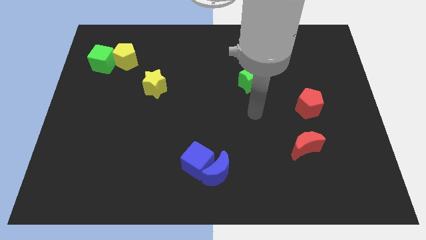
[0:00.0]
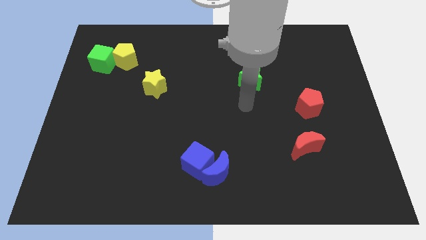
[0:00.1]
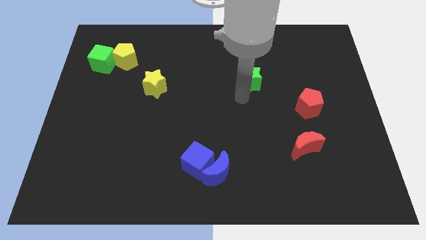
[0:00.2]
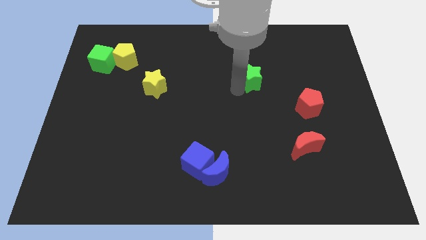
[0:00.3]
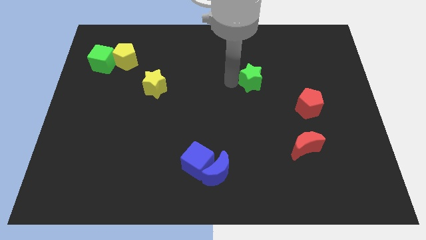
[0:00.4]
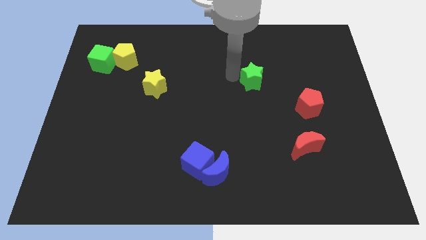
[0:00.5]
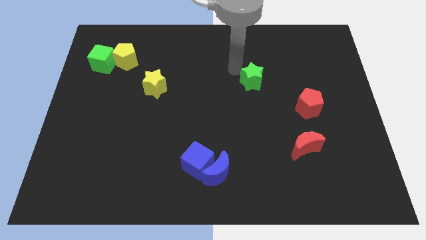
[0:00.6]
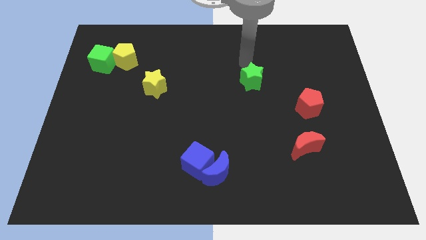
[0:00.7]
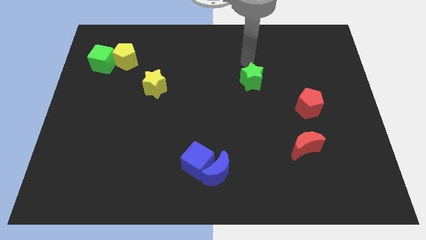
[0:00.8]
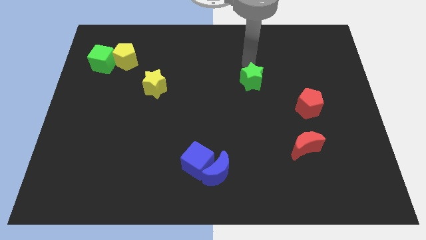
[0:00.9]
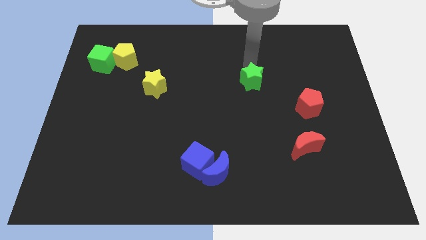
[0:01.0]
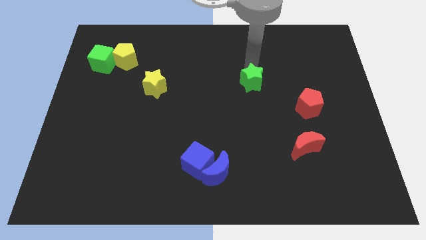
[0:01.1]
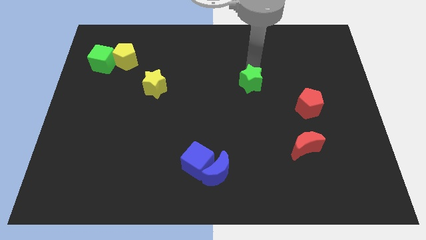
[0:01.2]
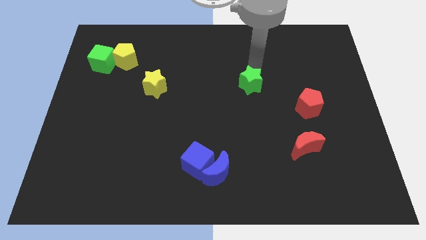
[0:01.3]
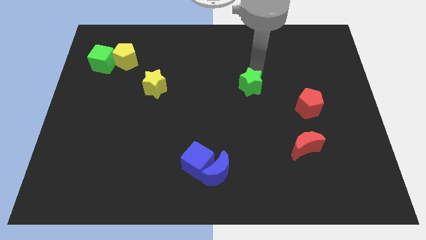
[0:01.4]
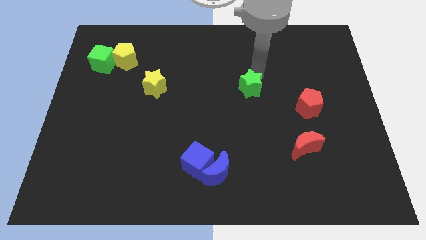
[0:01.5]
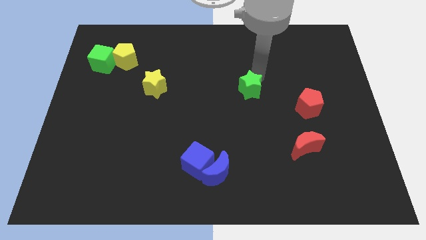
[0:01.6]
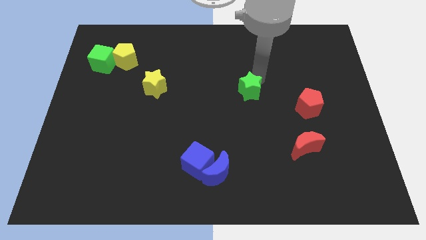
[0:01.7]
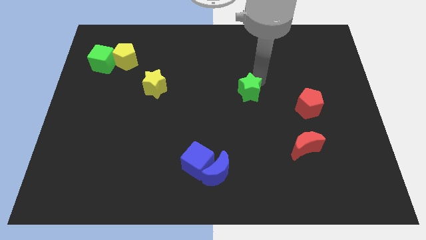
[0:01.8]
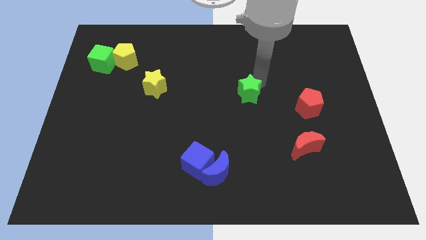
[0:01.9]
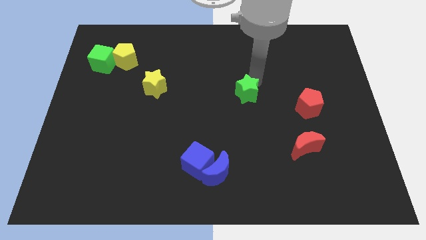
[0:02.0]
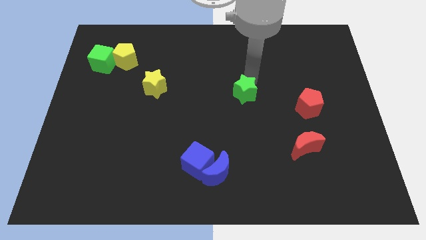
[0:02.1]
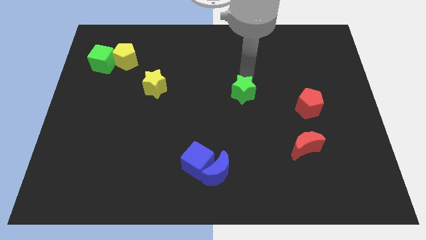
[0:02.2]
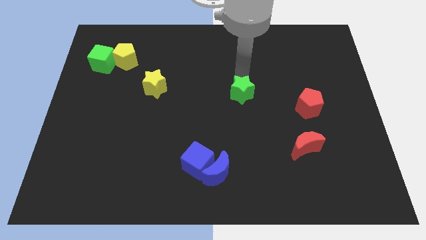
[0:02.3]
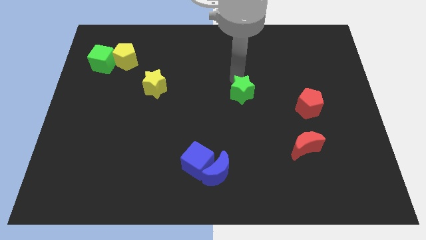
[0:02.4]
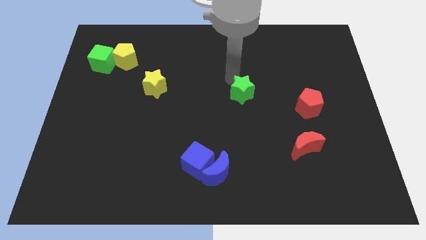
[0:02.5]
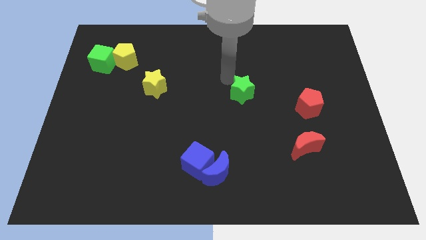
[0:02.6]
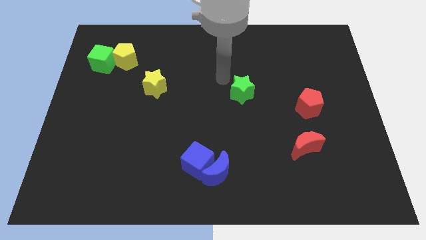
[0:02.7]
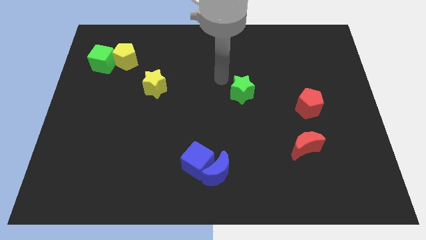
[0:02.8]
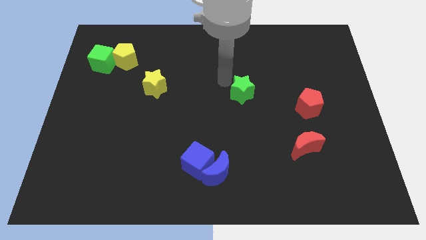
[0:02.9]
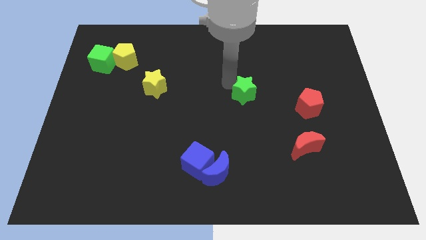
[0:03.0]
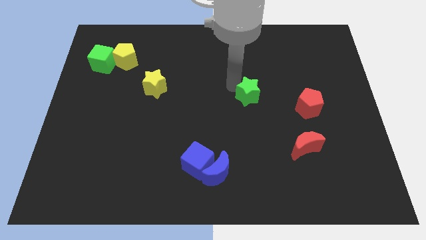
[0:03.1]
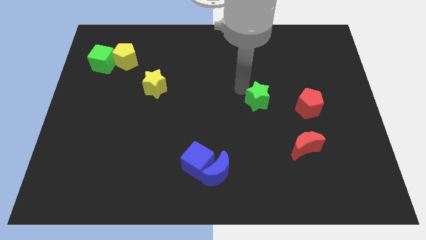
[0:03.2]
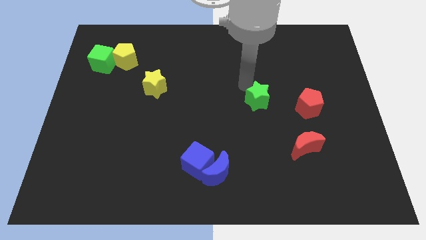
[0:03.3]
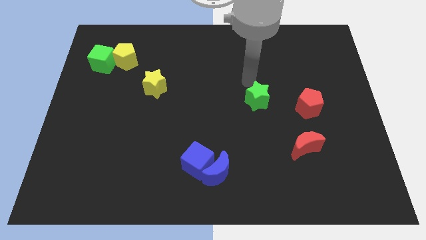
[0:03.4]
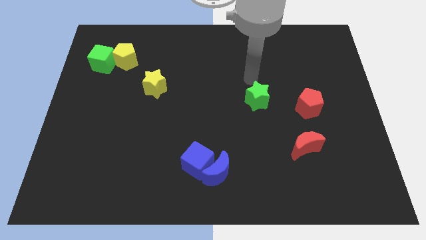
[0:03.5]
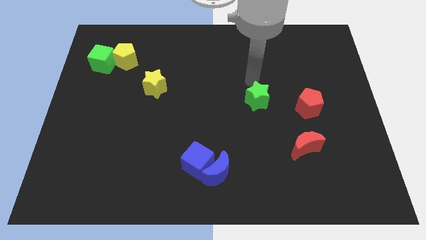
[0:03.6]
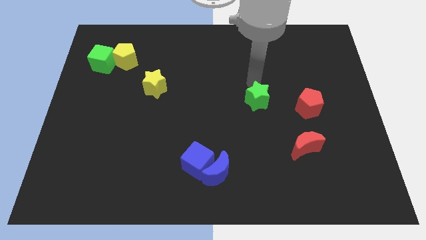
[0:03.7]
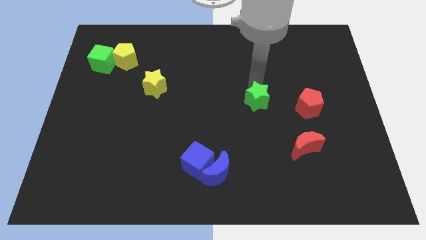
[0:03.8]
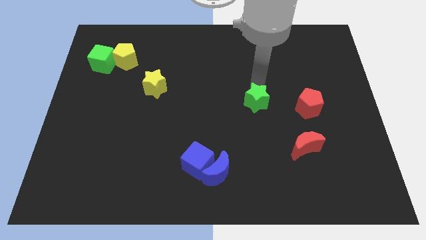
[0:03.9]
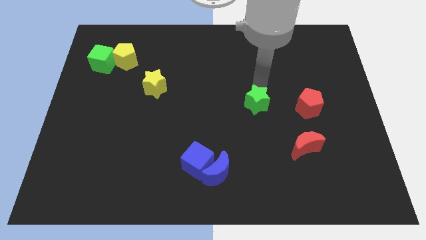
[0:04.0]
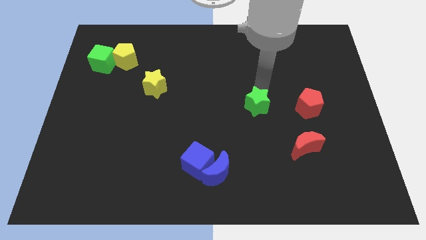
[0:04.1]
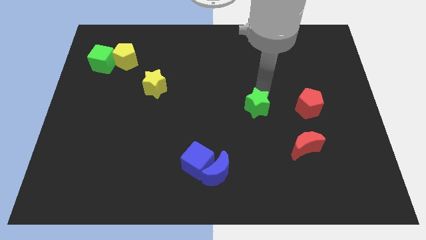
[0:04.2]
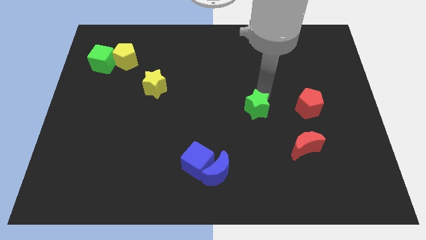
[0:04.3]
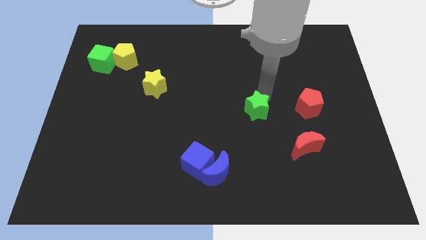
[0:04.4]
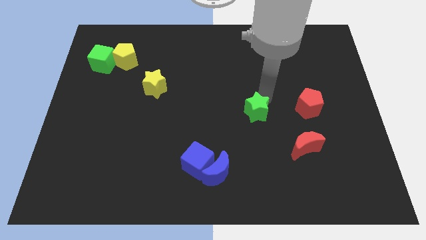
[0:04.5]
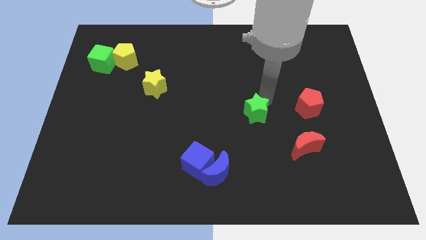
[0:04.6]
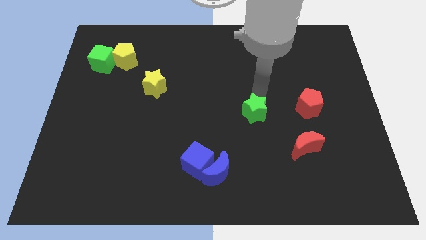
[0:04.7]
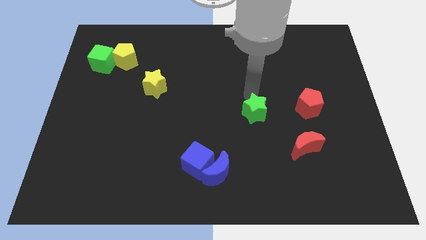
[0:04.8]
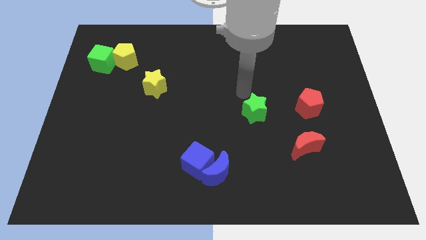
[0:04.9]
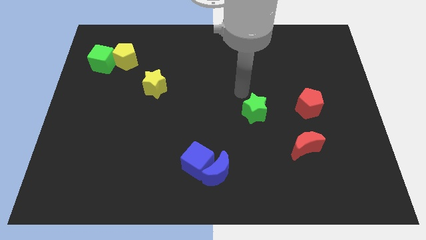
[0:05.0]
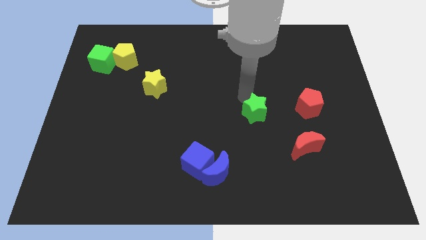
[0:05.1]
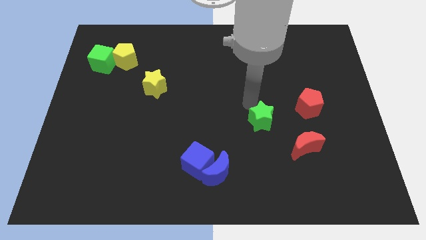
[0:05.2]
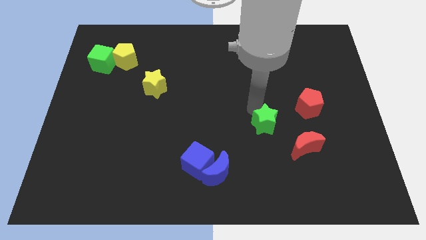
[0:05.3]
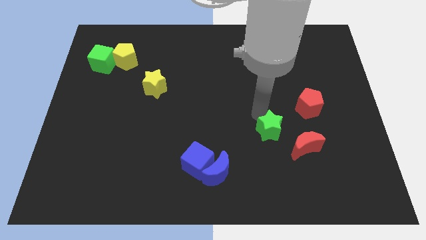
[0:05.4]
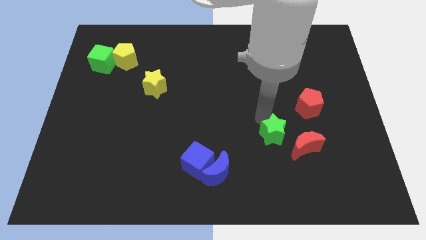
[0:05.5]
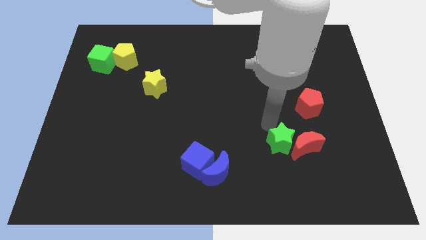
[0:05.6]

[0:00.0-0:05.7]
slide the green star diagonally down and to the left of the red moon

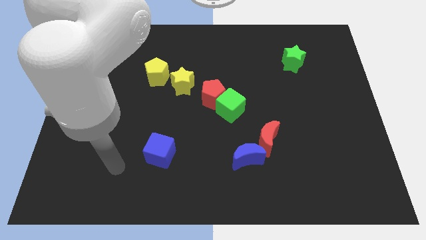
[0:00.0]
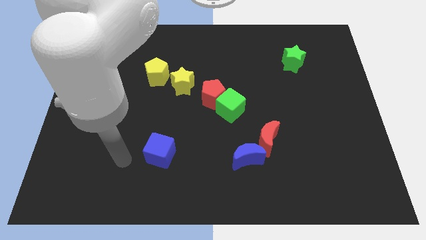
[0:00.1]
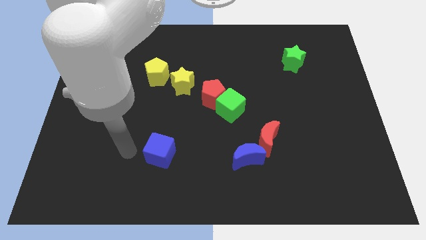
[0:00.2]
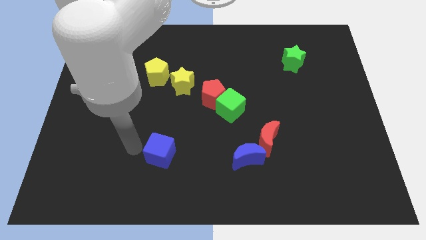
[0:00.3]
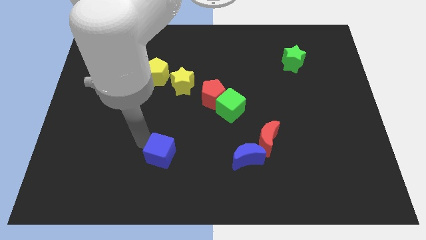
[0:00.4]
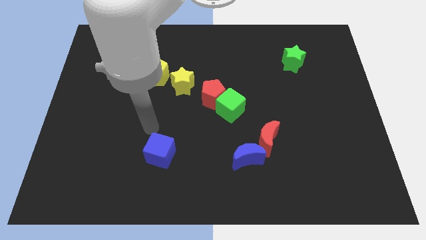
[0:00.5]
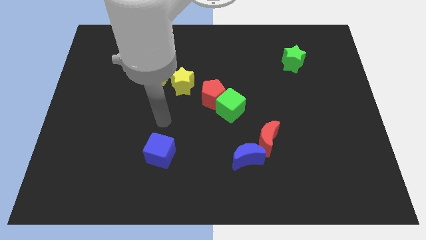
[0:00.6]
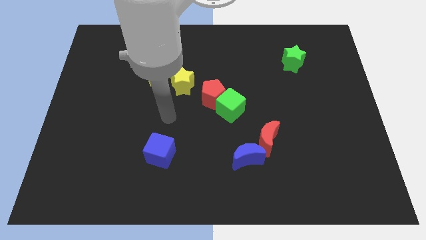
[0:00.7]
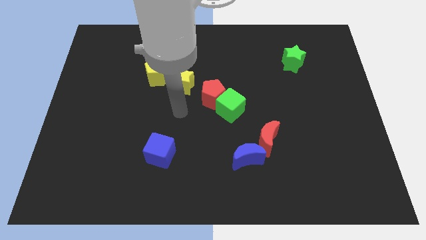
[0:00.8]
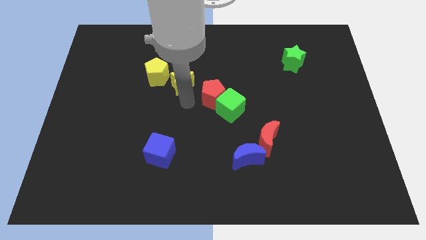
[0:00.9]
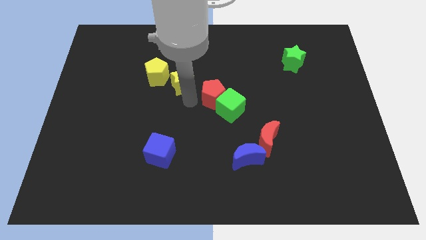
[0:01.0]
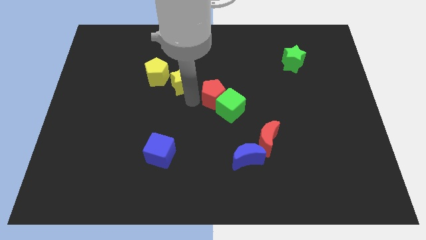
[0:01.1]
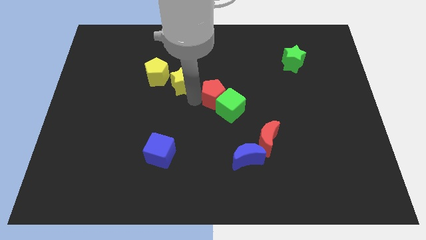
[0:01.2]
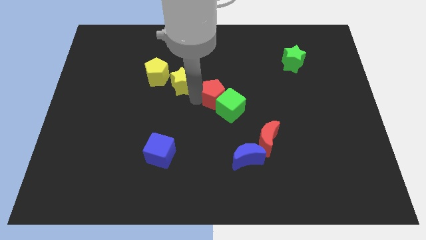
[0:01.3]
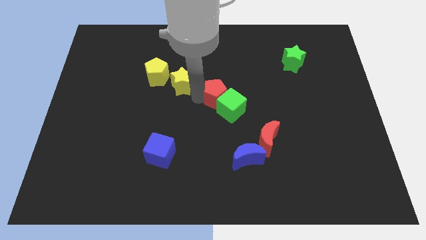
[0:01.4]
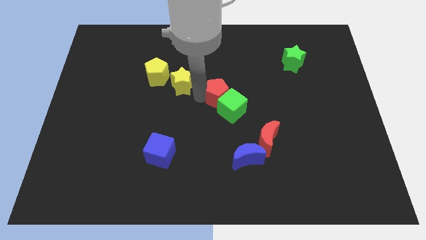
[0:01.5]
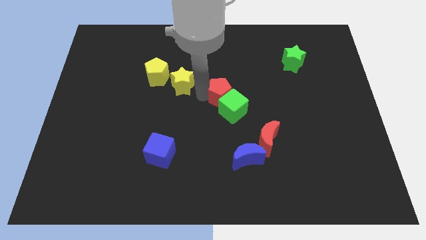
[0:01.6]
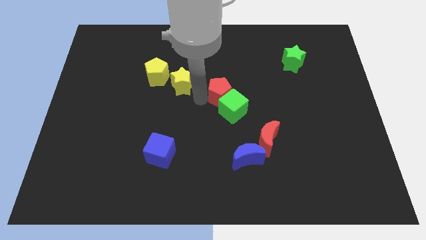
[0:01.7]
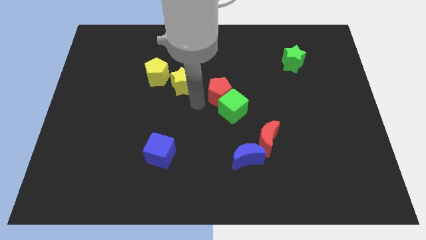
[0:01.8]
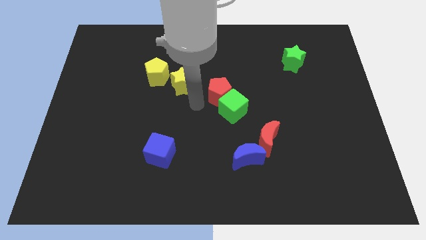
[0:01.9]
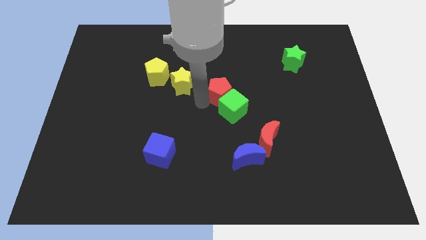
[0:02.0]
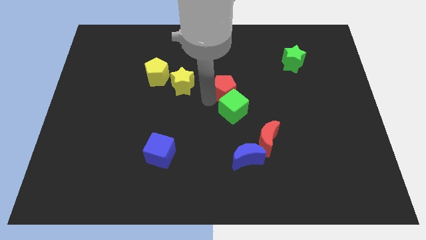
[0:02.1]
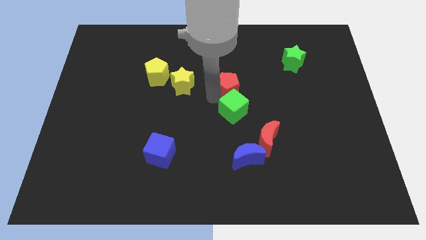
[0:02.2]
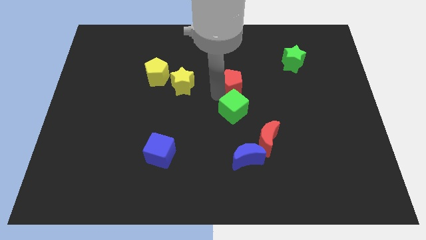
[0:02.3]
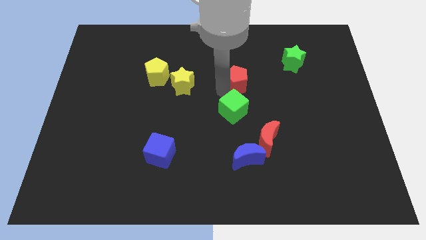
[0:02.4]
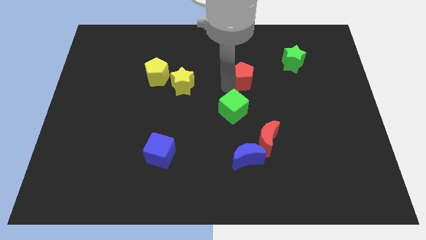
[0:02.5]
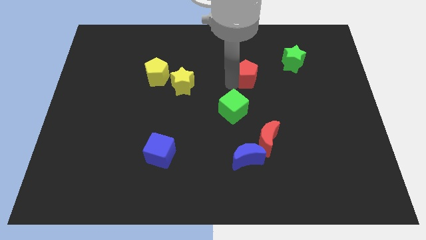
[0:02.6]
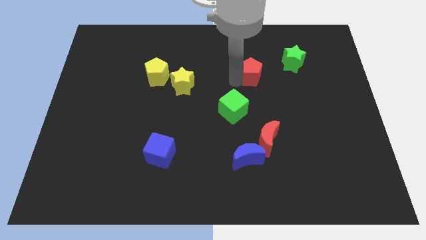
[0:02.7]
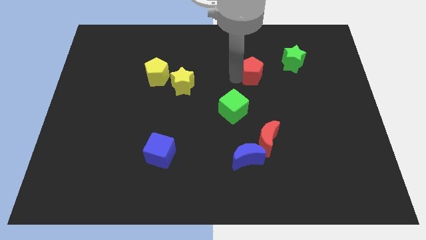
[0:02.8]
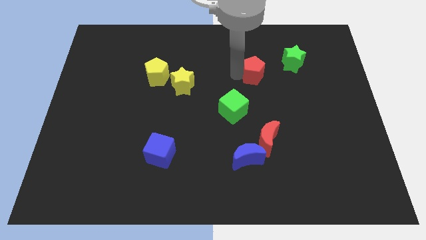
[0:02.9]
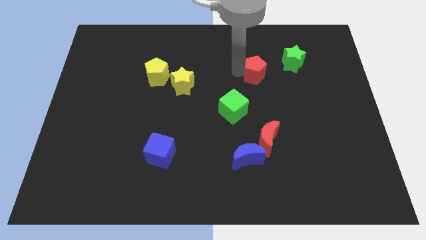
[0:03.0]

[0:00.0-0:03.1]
put the red pentagon to the bottom left of the green star
